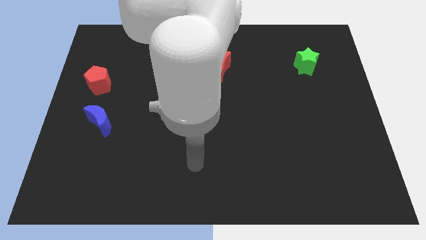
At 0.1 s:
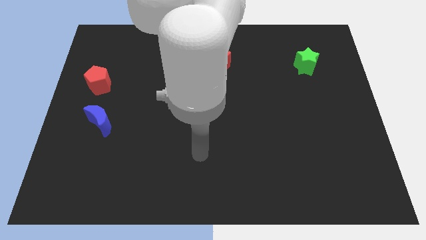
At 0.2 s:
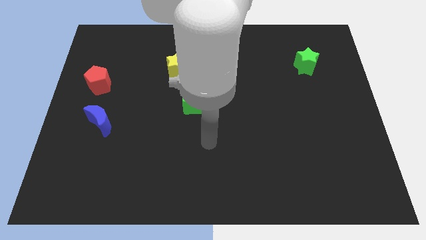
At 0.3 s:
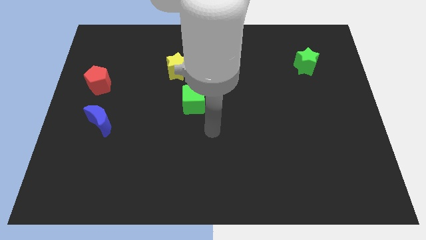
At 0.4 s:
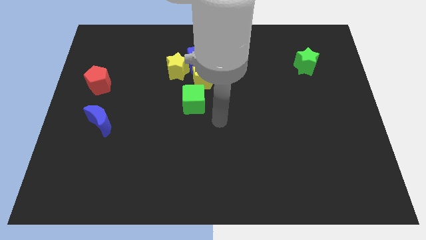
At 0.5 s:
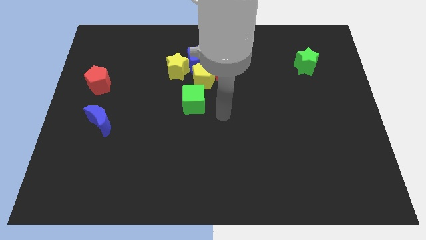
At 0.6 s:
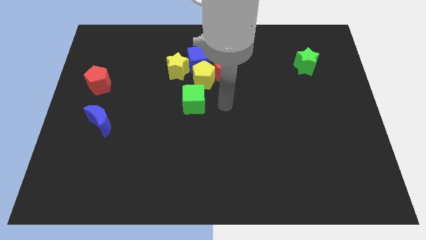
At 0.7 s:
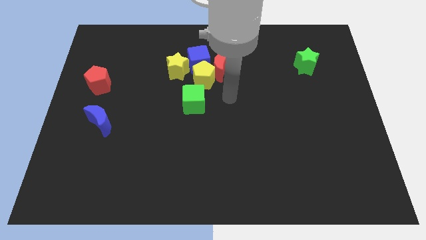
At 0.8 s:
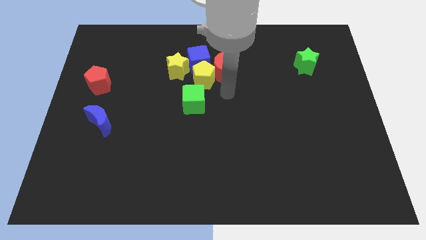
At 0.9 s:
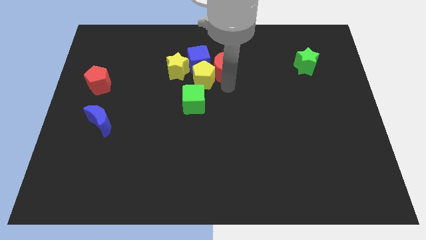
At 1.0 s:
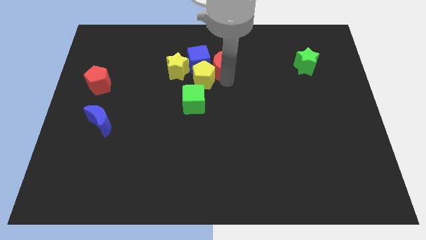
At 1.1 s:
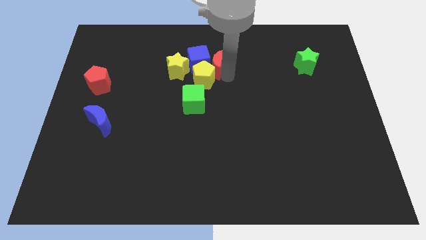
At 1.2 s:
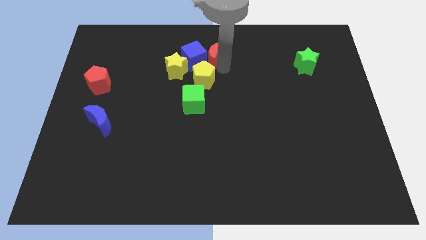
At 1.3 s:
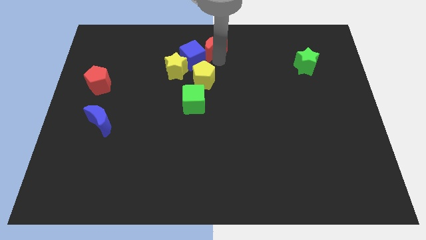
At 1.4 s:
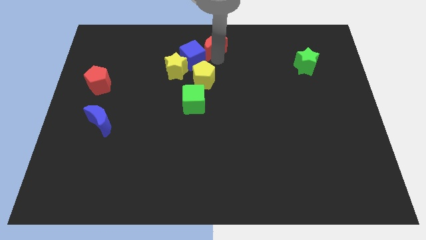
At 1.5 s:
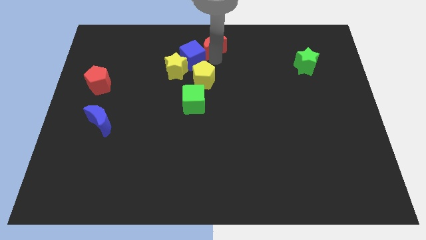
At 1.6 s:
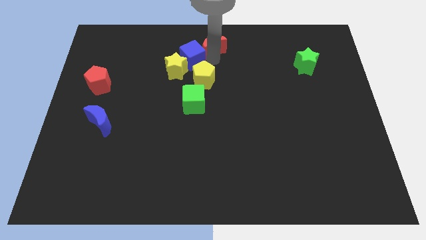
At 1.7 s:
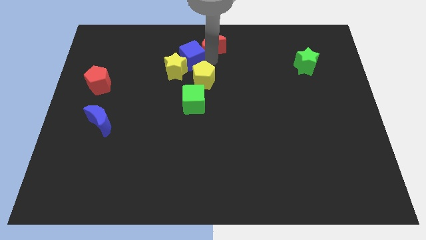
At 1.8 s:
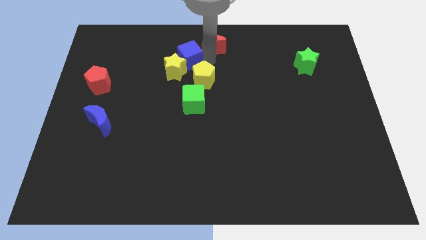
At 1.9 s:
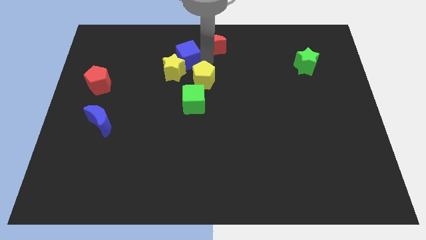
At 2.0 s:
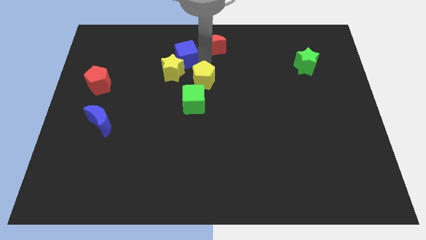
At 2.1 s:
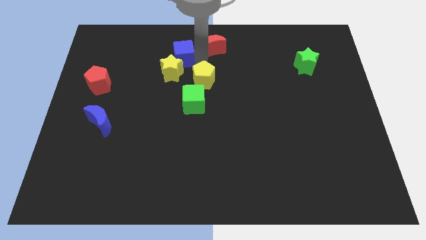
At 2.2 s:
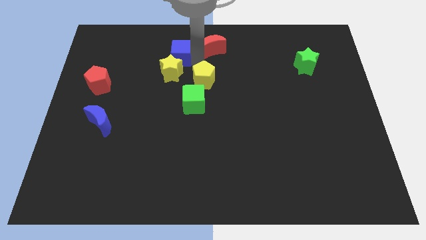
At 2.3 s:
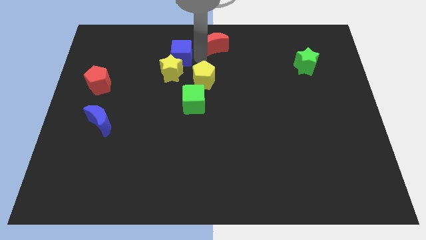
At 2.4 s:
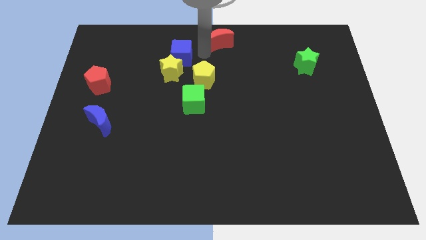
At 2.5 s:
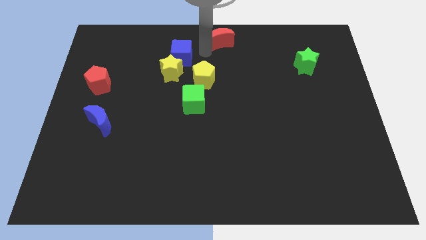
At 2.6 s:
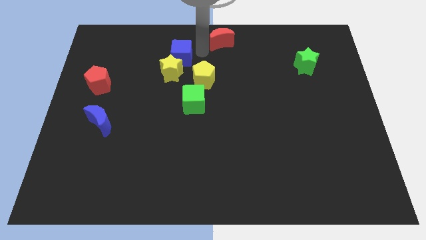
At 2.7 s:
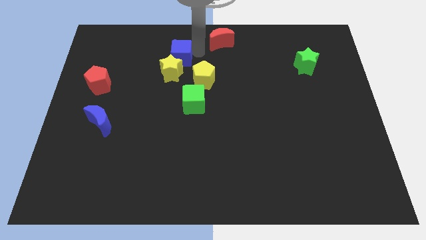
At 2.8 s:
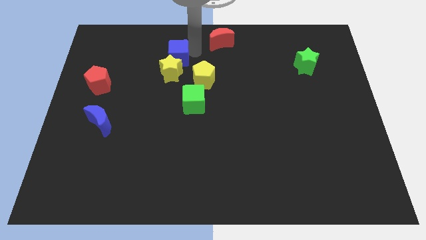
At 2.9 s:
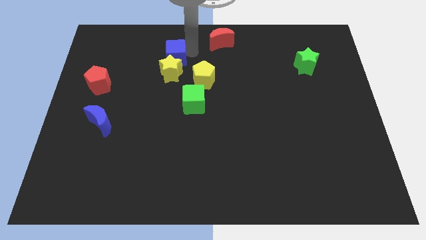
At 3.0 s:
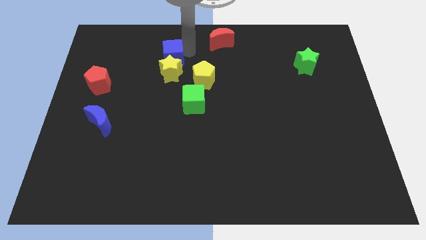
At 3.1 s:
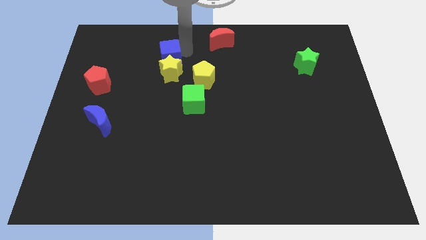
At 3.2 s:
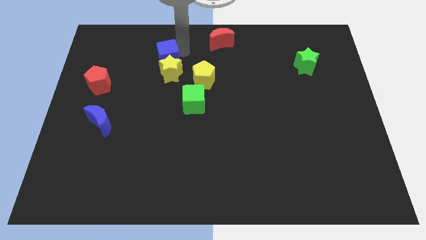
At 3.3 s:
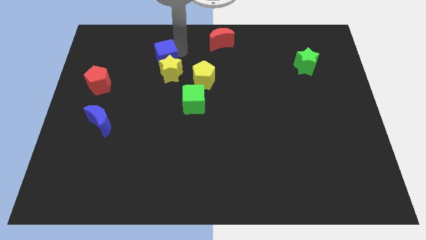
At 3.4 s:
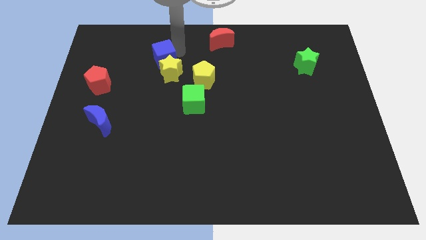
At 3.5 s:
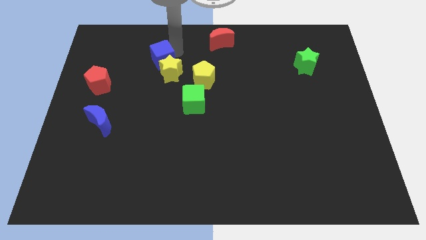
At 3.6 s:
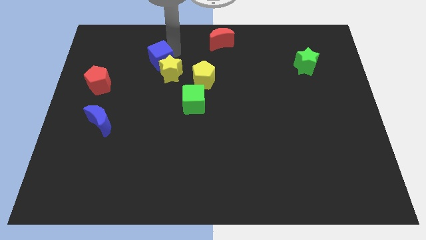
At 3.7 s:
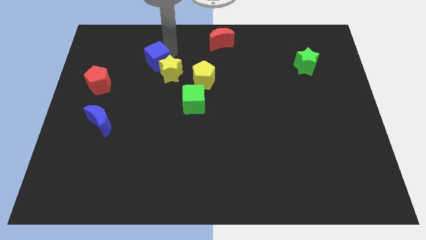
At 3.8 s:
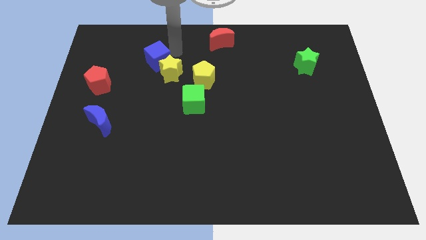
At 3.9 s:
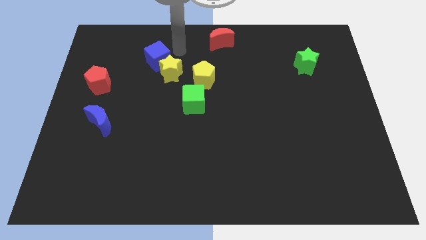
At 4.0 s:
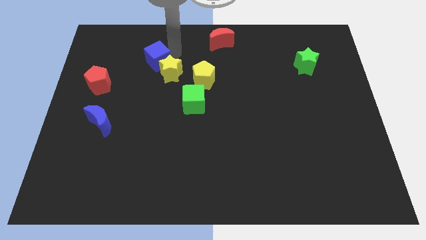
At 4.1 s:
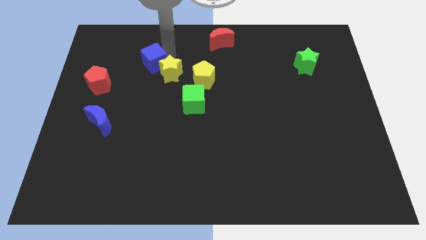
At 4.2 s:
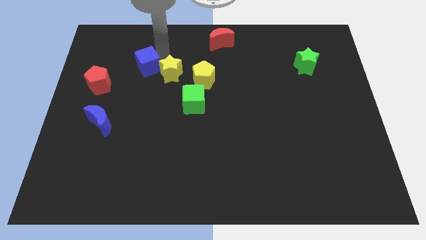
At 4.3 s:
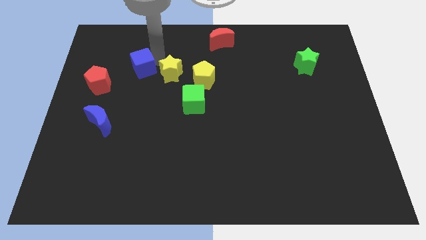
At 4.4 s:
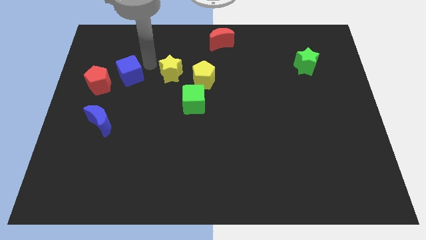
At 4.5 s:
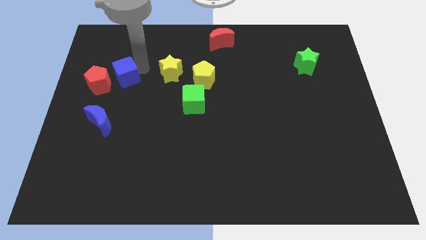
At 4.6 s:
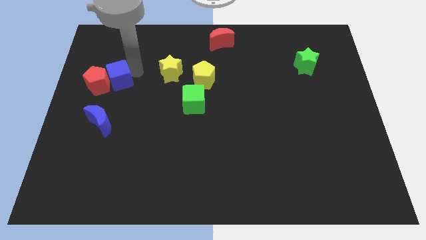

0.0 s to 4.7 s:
slide the blue cube close to the red pentagon

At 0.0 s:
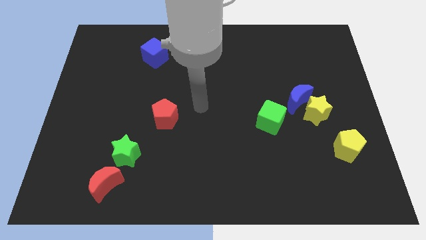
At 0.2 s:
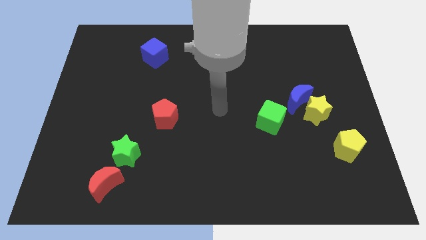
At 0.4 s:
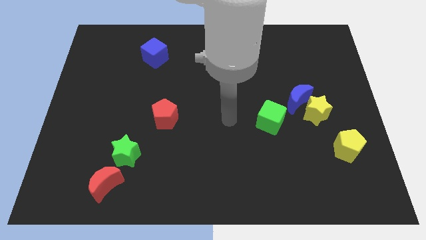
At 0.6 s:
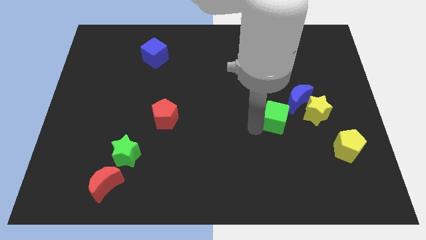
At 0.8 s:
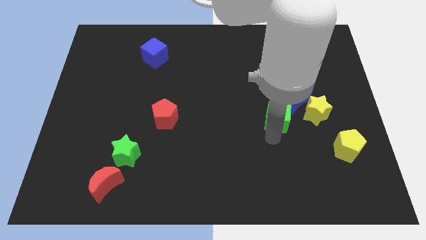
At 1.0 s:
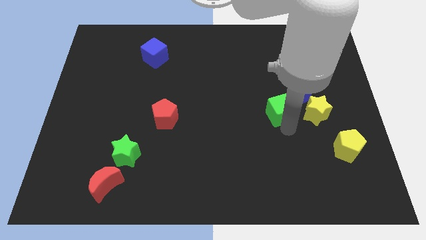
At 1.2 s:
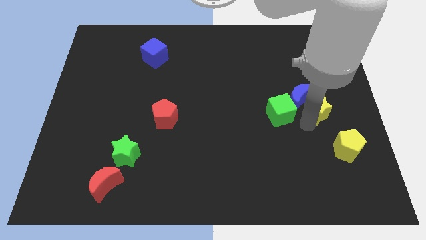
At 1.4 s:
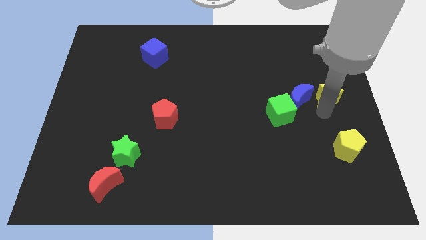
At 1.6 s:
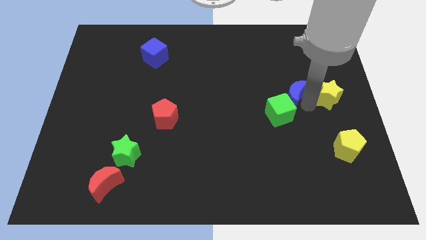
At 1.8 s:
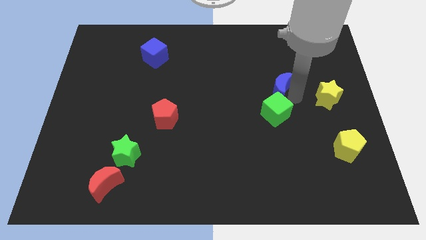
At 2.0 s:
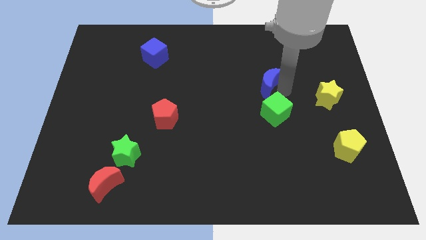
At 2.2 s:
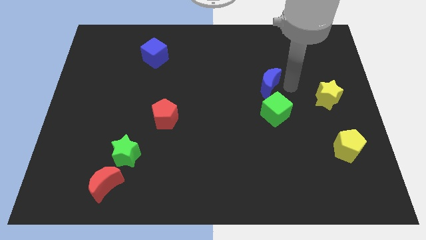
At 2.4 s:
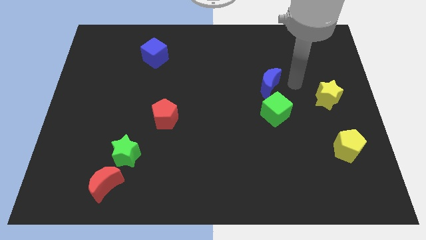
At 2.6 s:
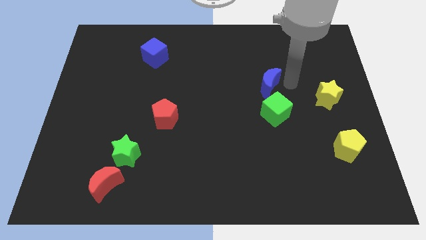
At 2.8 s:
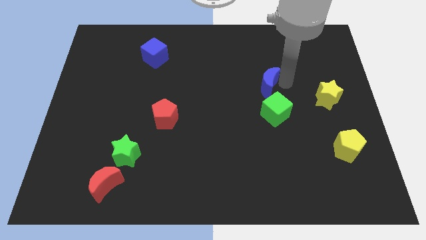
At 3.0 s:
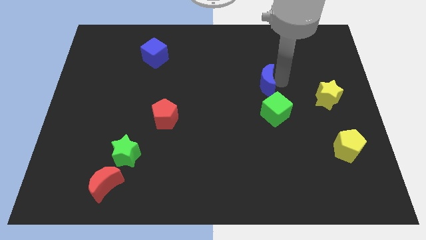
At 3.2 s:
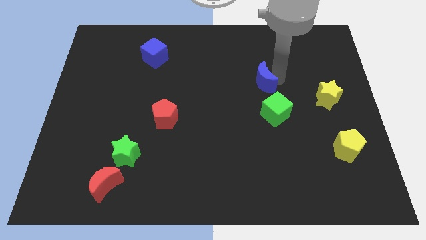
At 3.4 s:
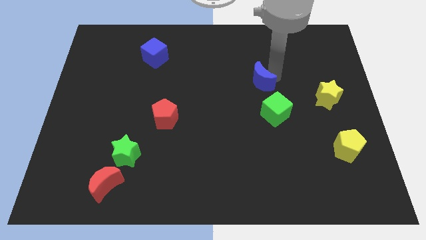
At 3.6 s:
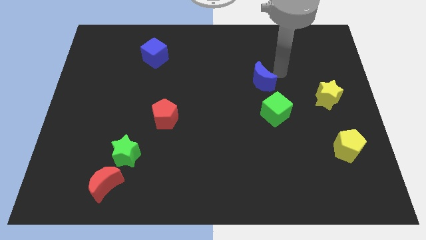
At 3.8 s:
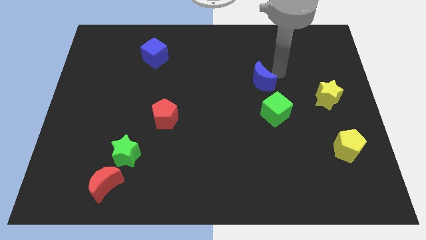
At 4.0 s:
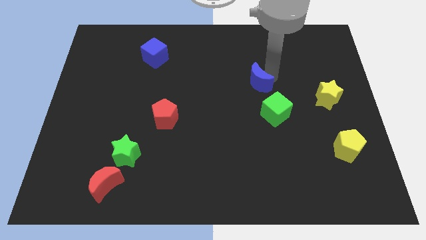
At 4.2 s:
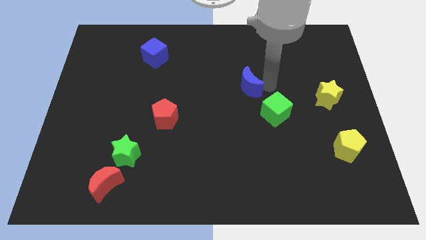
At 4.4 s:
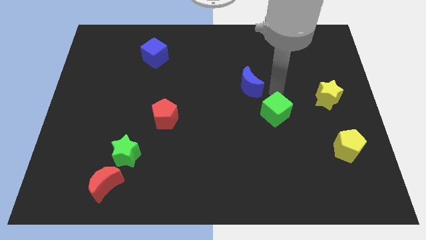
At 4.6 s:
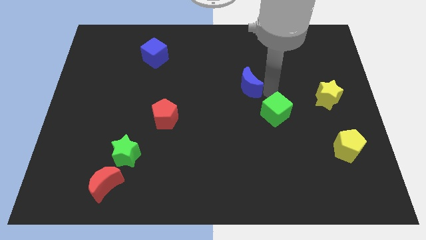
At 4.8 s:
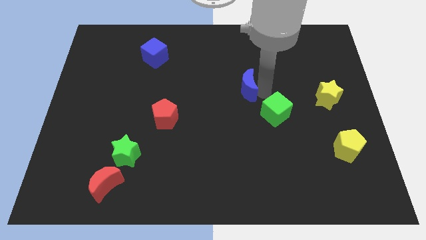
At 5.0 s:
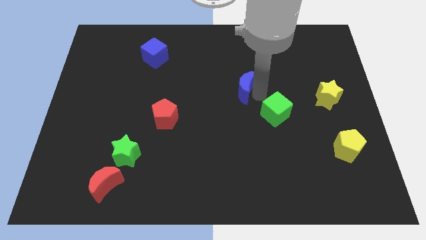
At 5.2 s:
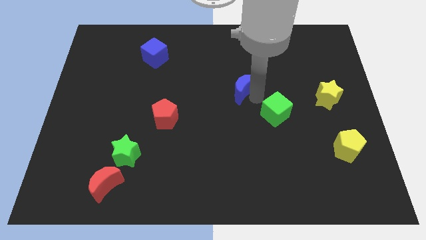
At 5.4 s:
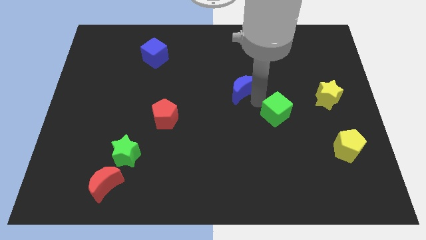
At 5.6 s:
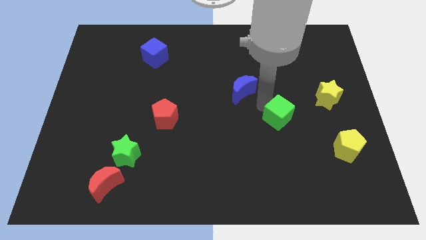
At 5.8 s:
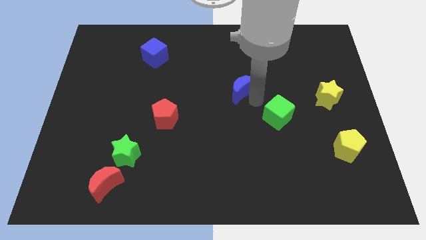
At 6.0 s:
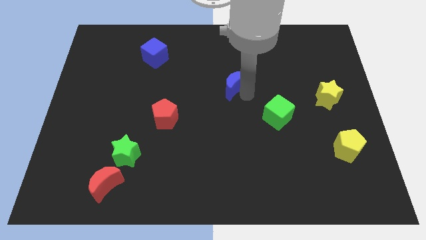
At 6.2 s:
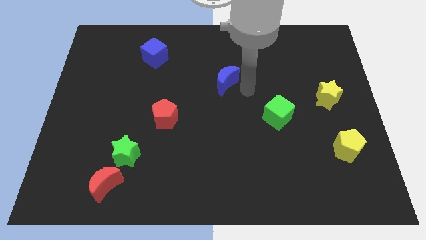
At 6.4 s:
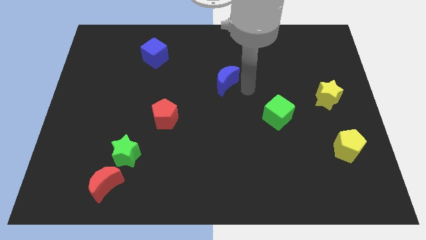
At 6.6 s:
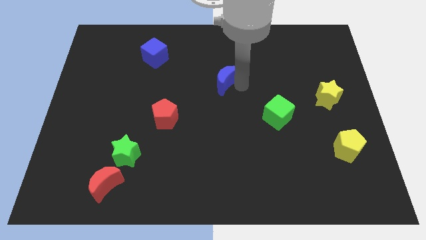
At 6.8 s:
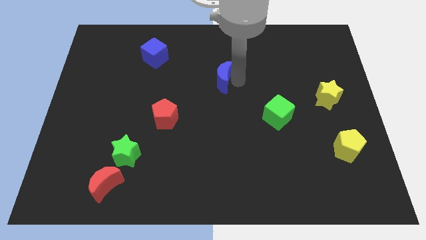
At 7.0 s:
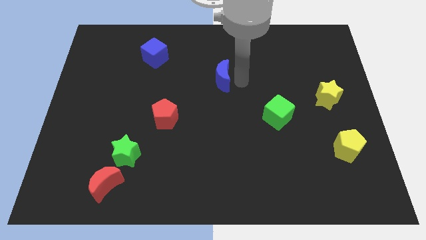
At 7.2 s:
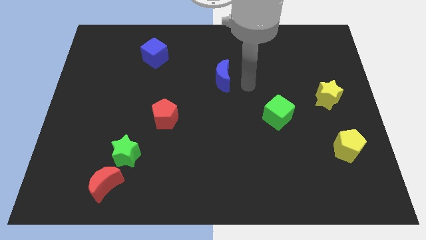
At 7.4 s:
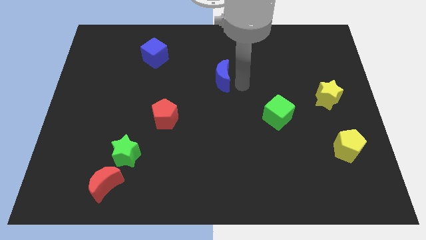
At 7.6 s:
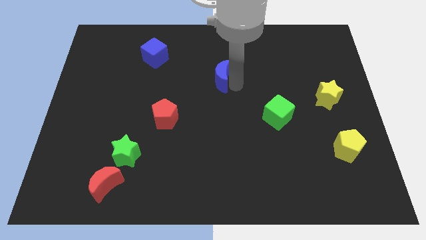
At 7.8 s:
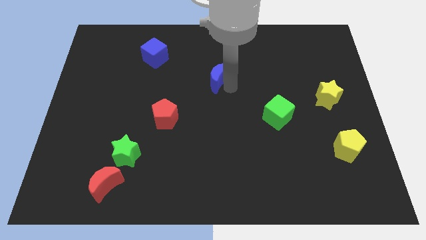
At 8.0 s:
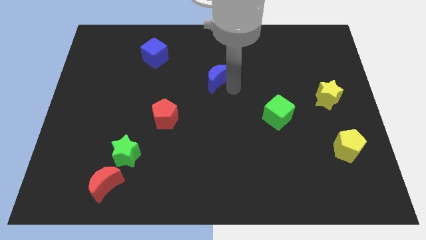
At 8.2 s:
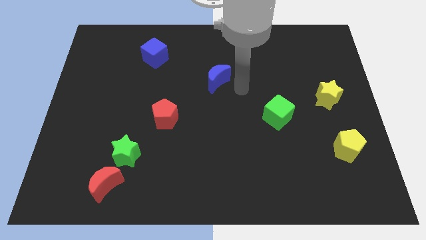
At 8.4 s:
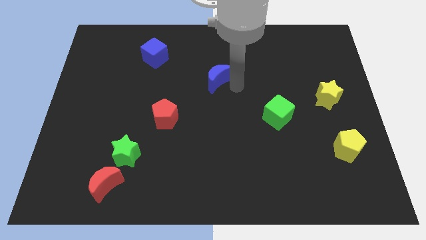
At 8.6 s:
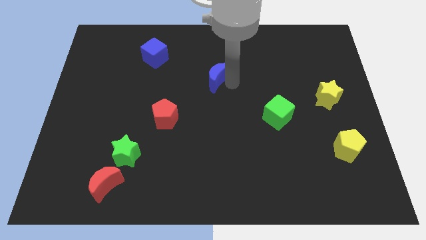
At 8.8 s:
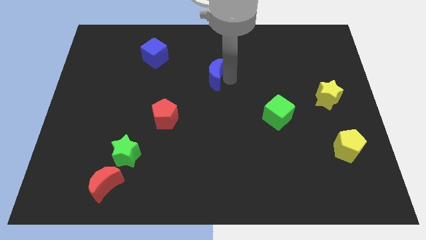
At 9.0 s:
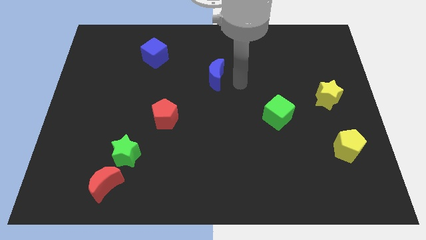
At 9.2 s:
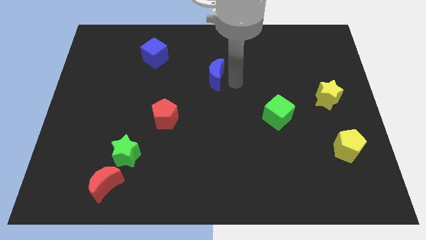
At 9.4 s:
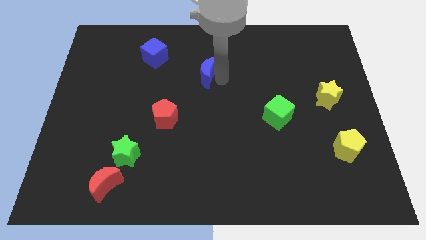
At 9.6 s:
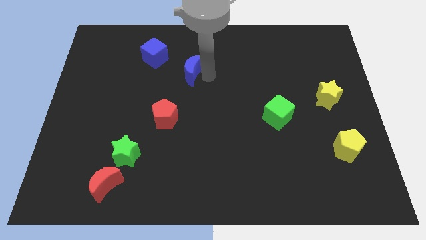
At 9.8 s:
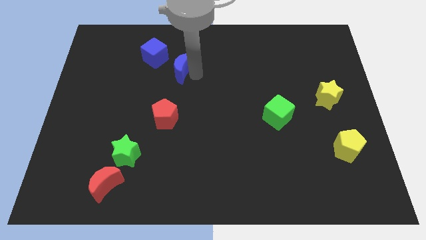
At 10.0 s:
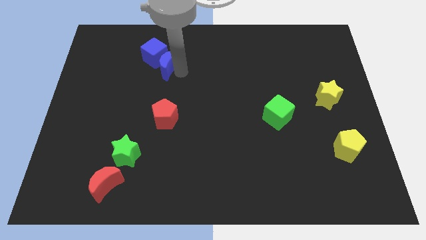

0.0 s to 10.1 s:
put the blue moon close to the blue cube
